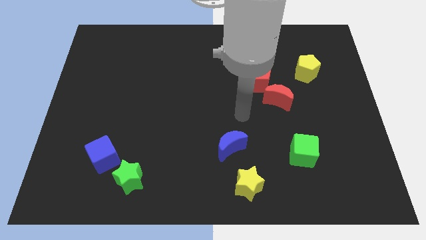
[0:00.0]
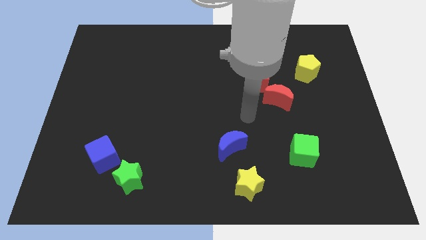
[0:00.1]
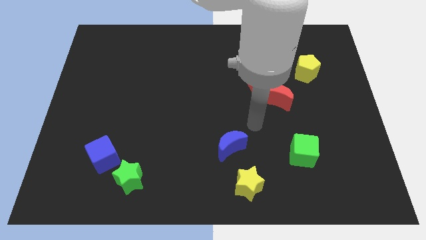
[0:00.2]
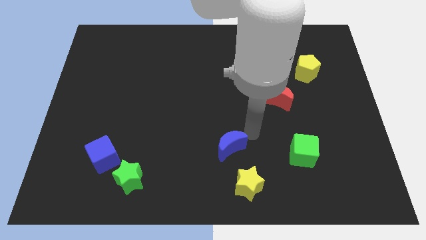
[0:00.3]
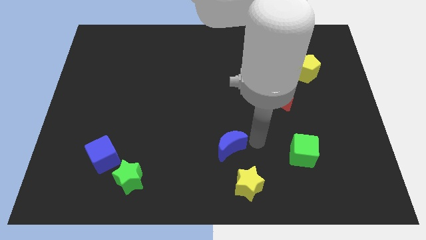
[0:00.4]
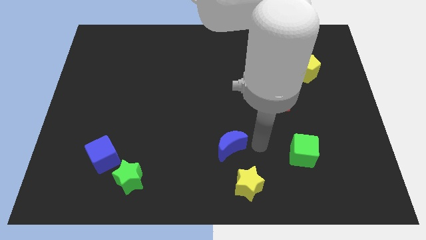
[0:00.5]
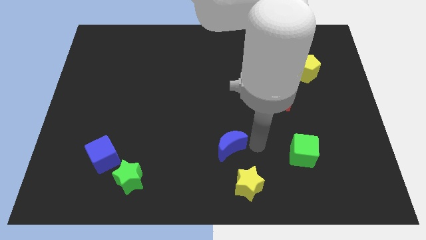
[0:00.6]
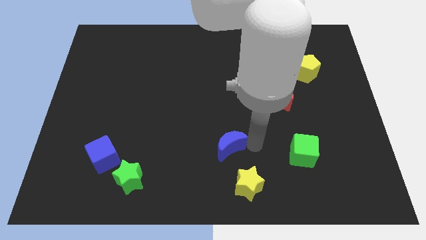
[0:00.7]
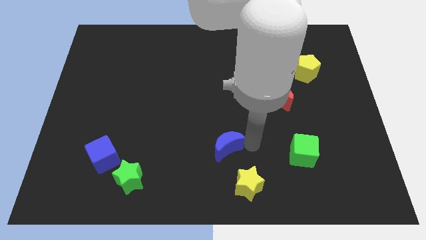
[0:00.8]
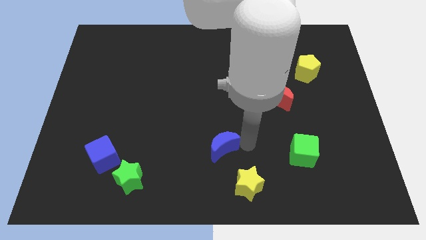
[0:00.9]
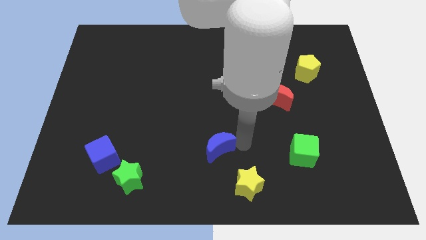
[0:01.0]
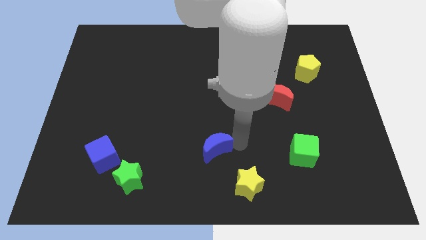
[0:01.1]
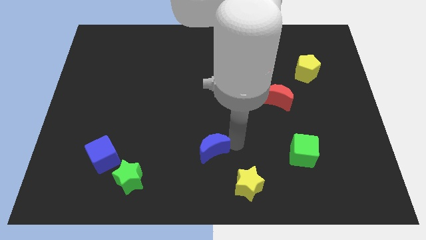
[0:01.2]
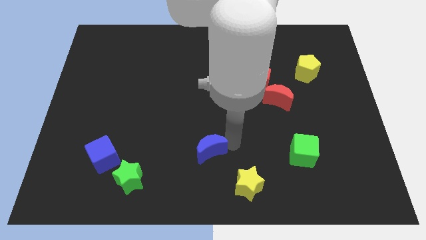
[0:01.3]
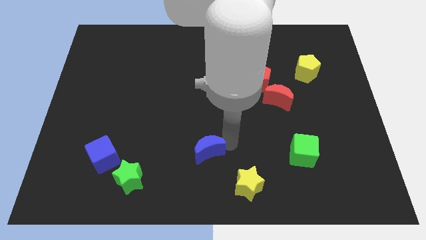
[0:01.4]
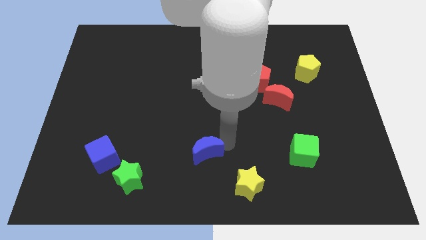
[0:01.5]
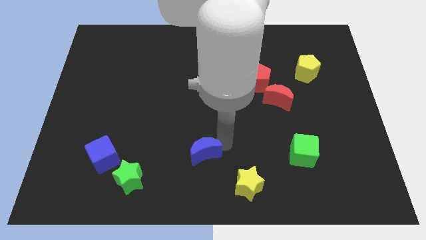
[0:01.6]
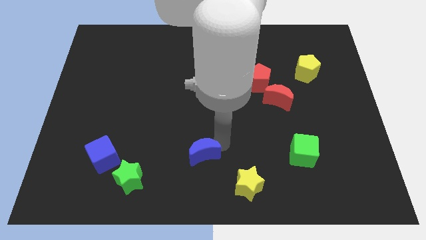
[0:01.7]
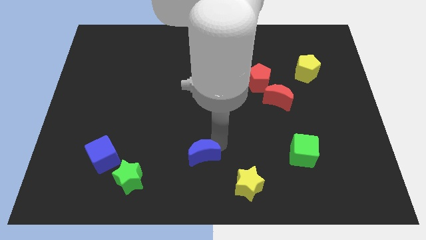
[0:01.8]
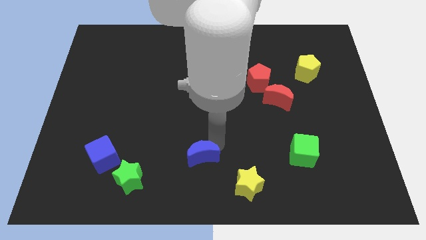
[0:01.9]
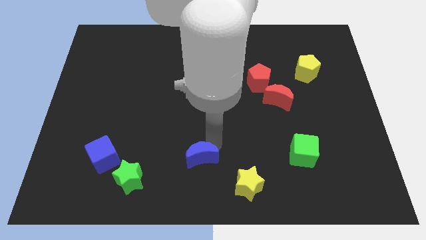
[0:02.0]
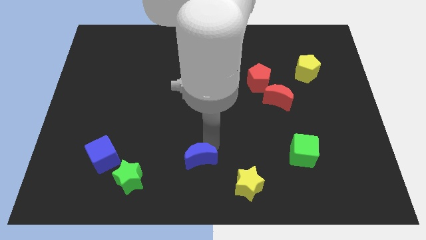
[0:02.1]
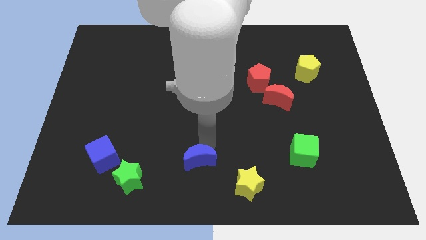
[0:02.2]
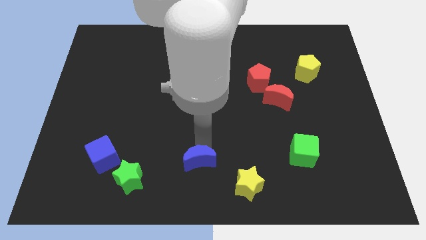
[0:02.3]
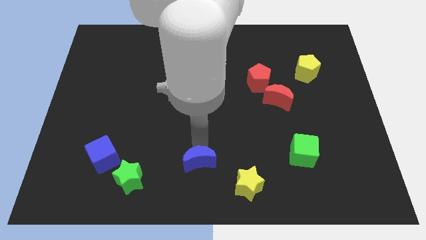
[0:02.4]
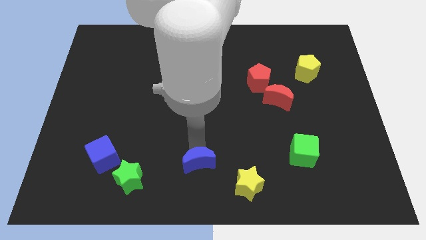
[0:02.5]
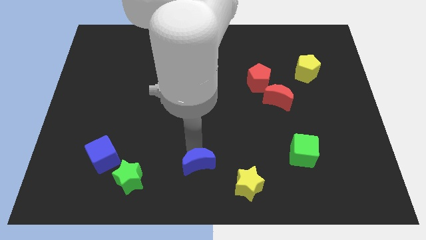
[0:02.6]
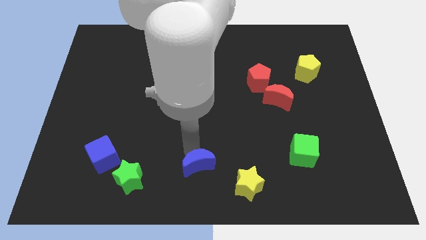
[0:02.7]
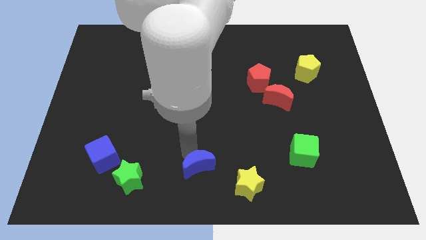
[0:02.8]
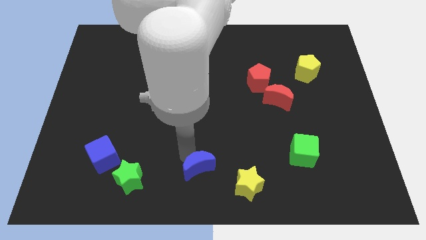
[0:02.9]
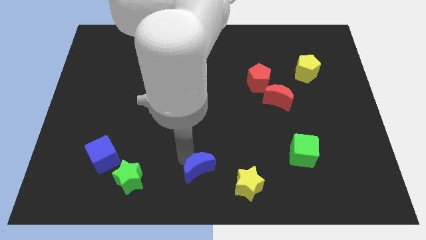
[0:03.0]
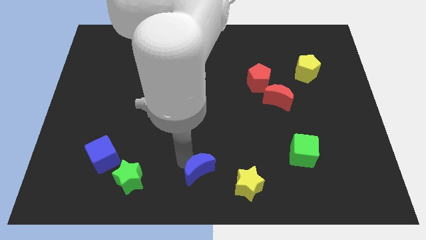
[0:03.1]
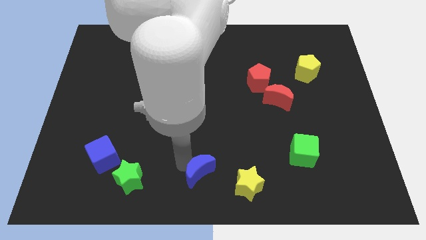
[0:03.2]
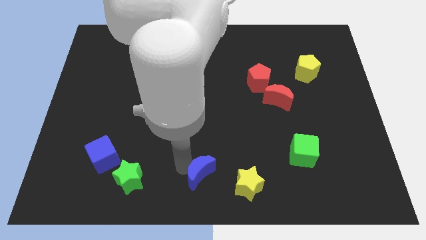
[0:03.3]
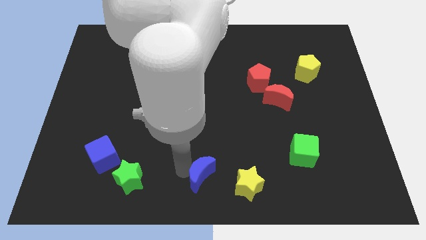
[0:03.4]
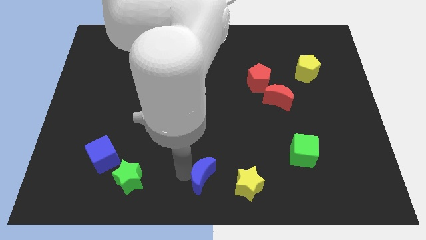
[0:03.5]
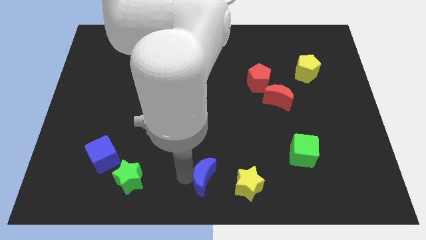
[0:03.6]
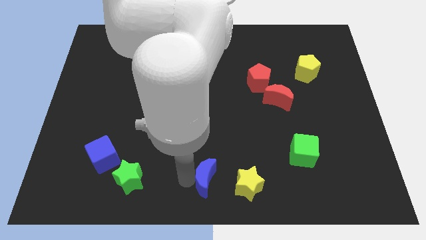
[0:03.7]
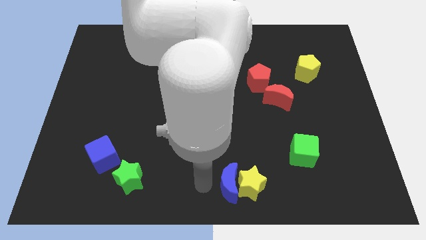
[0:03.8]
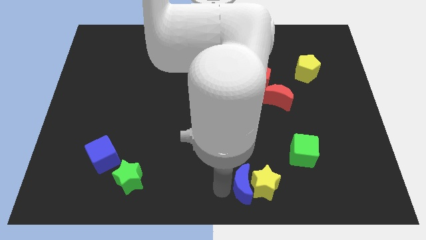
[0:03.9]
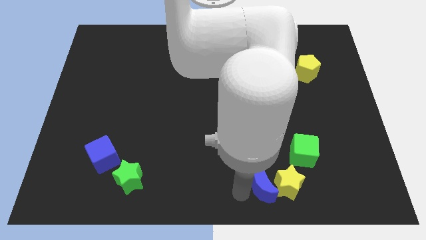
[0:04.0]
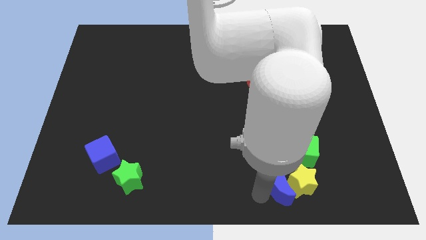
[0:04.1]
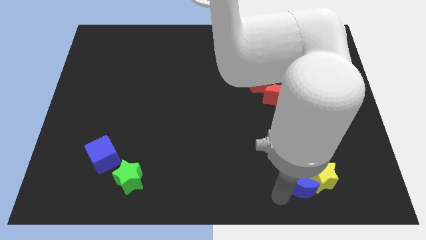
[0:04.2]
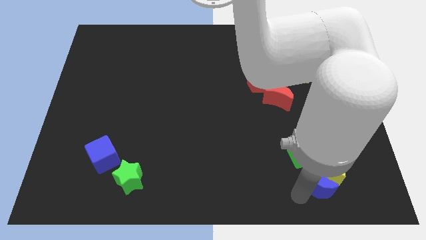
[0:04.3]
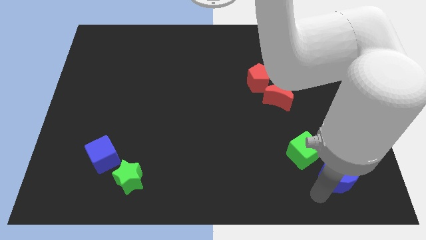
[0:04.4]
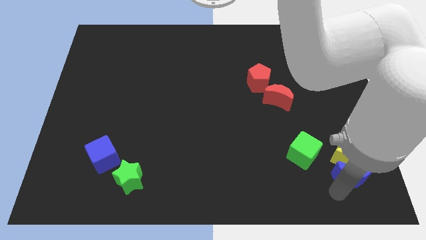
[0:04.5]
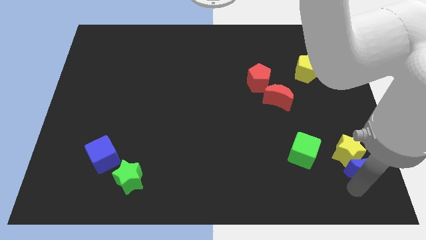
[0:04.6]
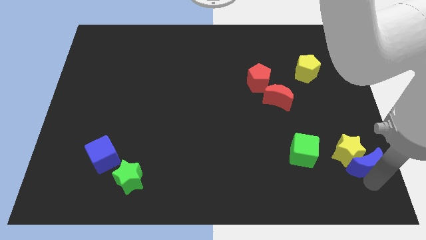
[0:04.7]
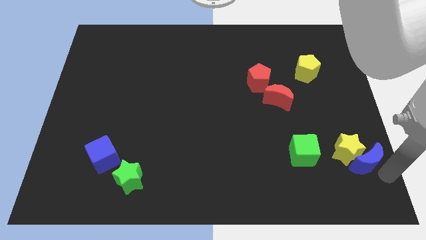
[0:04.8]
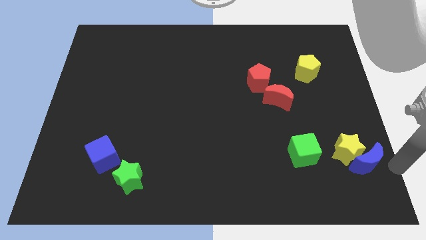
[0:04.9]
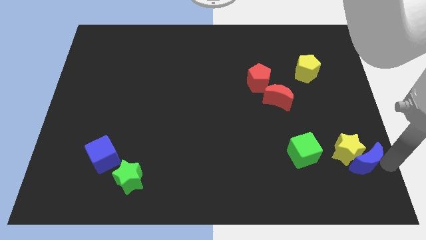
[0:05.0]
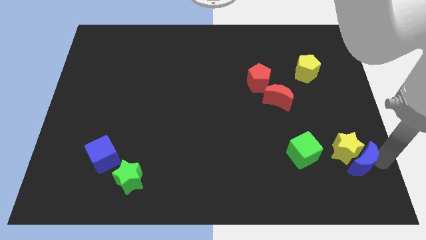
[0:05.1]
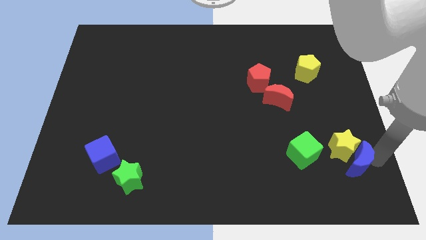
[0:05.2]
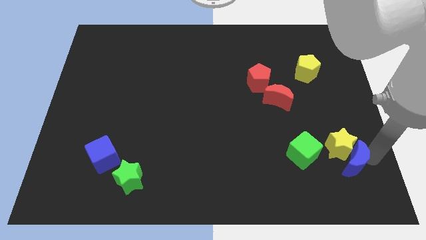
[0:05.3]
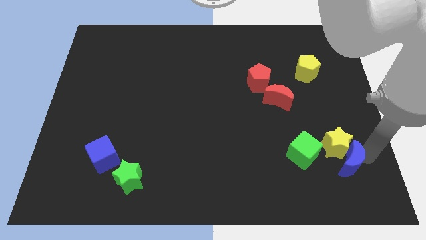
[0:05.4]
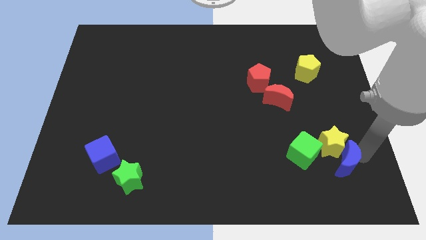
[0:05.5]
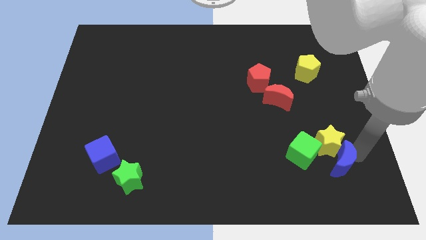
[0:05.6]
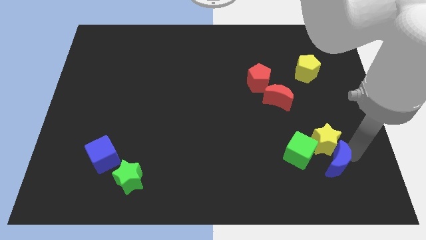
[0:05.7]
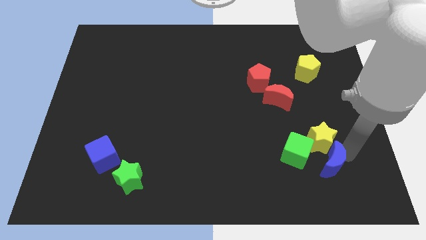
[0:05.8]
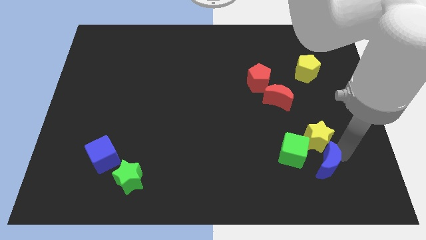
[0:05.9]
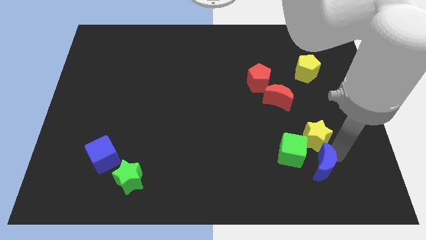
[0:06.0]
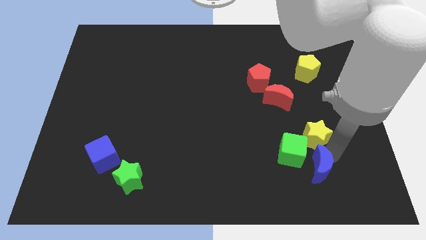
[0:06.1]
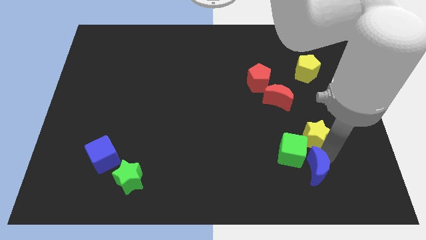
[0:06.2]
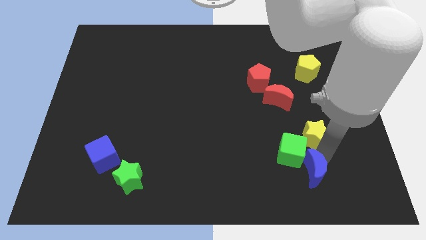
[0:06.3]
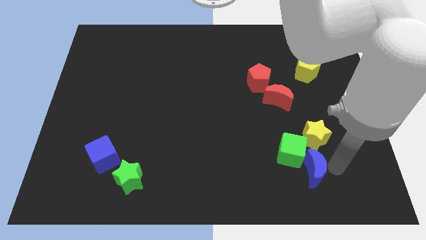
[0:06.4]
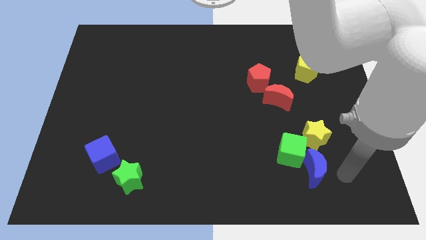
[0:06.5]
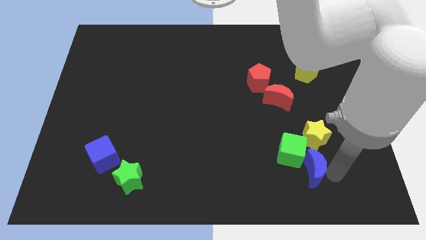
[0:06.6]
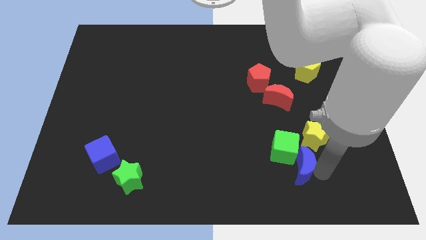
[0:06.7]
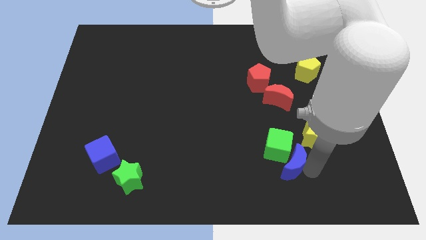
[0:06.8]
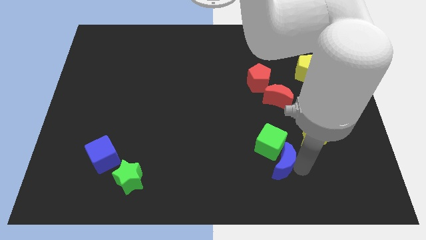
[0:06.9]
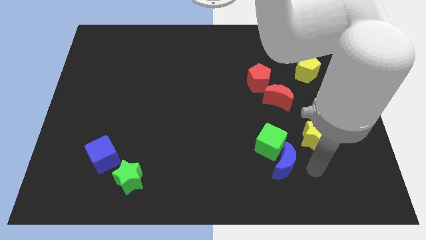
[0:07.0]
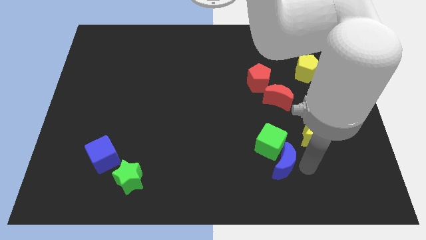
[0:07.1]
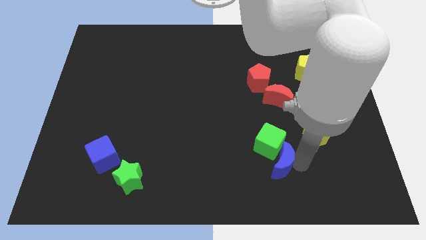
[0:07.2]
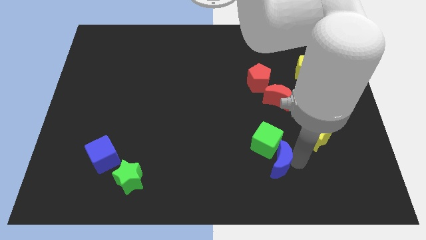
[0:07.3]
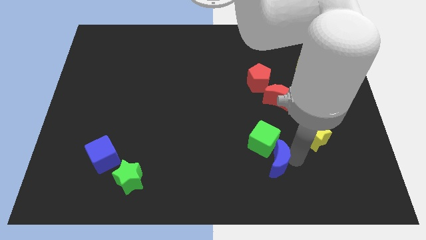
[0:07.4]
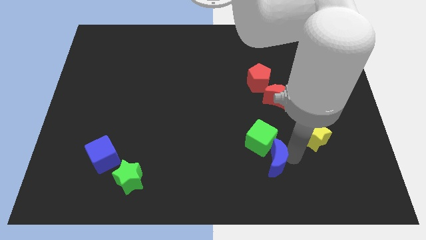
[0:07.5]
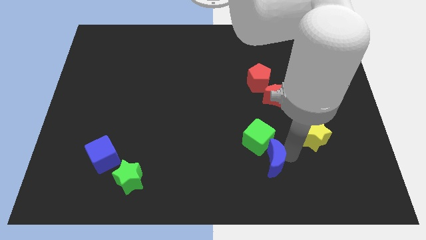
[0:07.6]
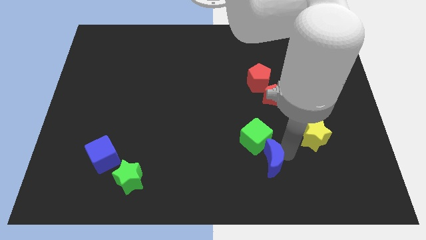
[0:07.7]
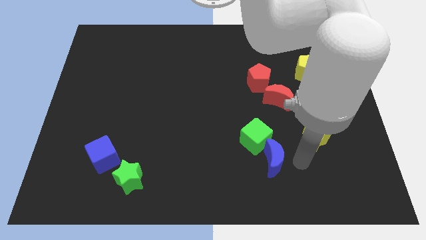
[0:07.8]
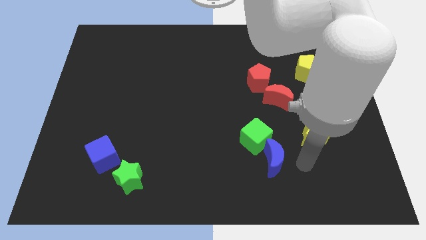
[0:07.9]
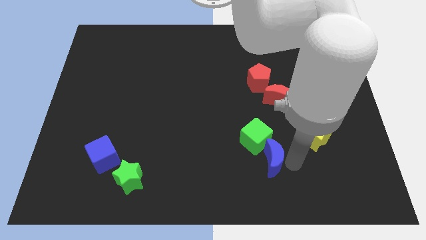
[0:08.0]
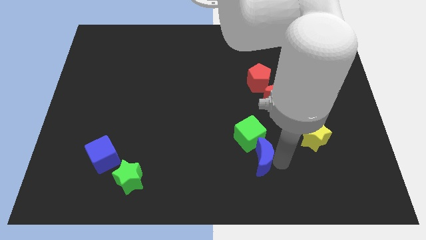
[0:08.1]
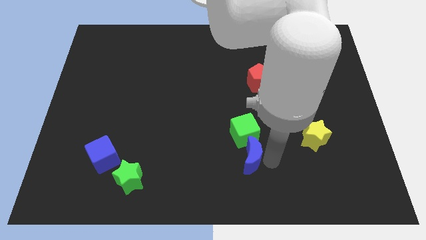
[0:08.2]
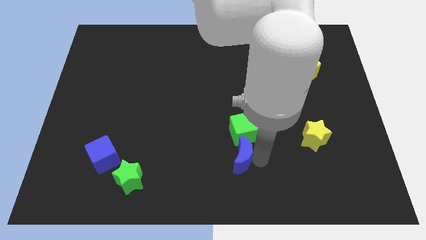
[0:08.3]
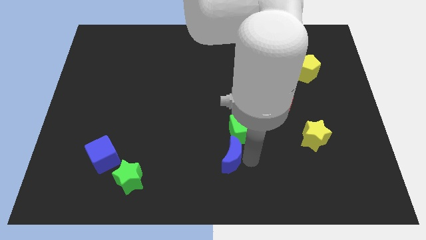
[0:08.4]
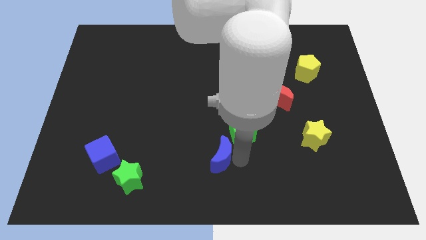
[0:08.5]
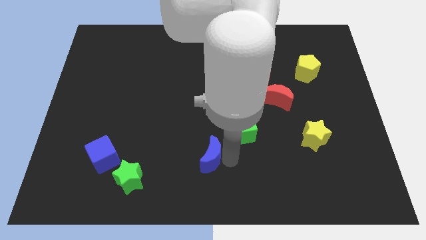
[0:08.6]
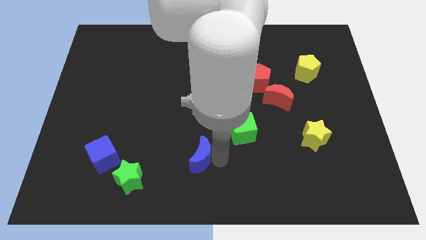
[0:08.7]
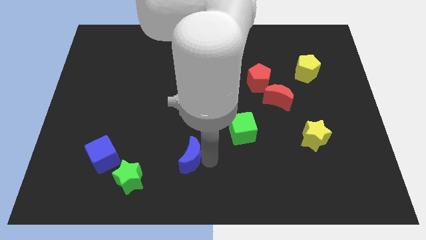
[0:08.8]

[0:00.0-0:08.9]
move the blue moon somewhat to the left
